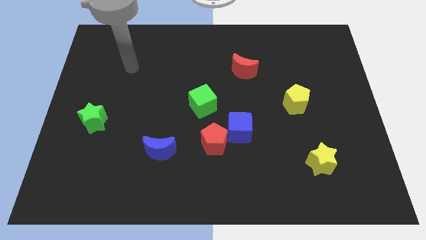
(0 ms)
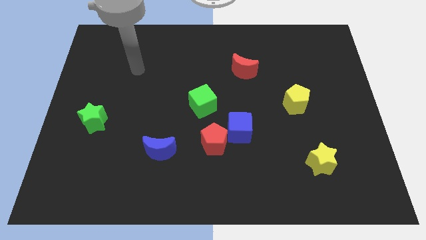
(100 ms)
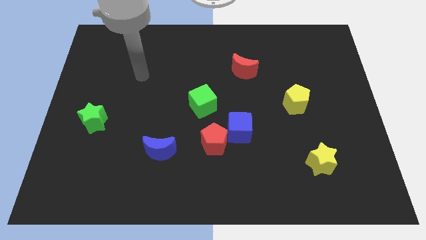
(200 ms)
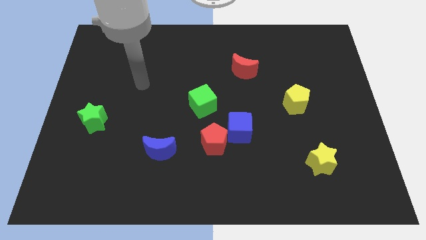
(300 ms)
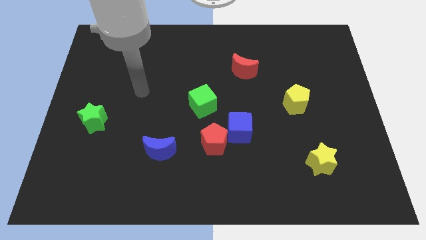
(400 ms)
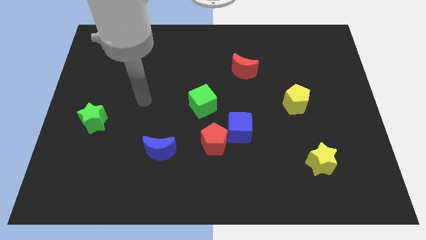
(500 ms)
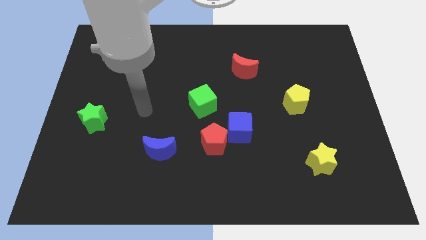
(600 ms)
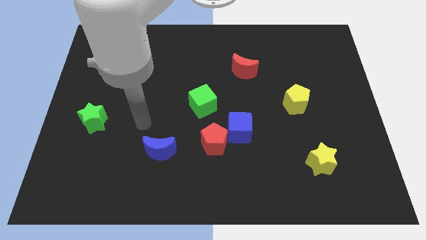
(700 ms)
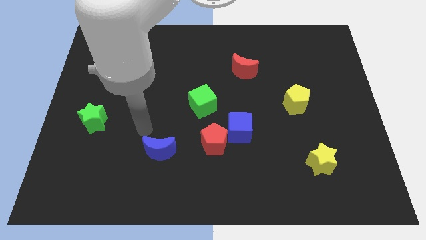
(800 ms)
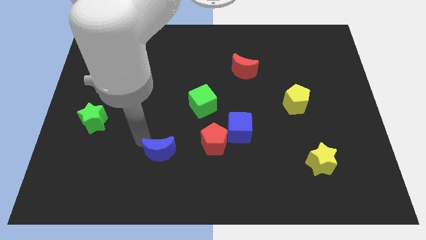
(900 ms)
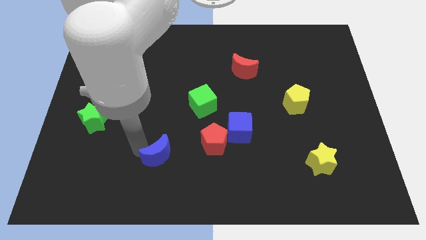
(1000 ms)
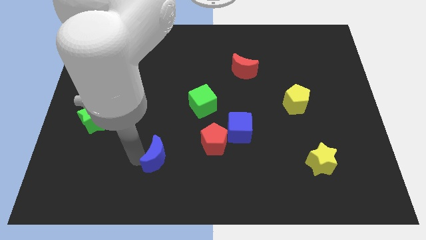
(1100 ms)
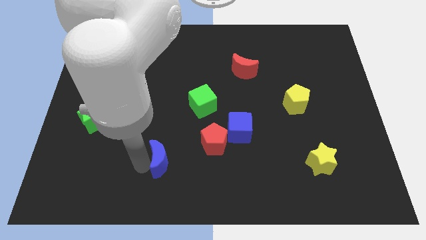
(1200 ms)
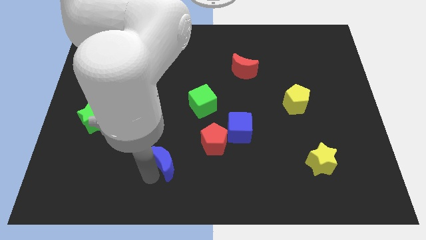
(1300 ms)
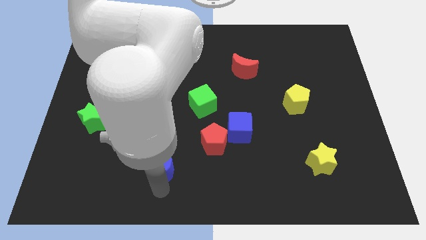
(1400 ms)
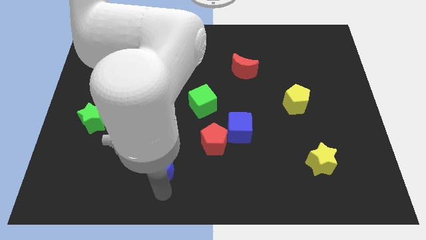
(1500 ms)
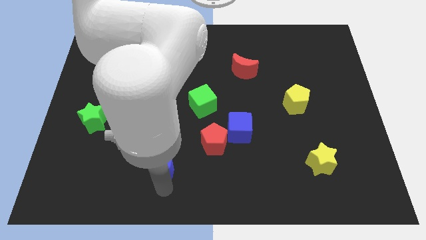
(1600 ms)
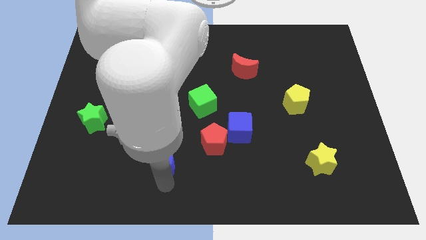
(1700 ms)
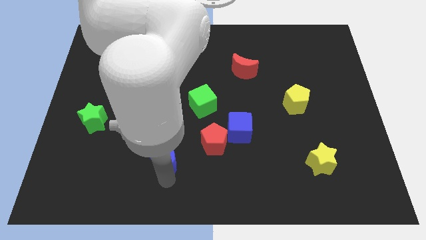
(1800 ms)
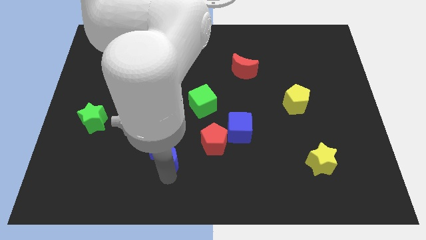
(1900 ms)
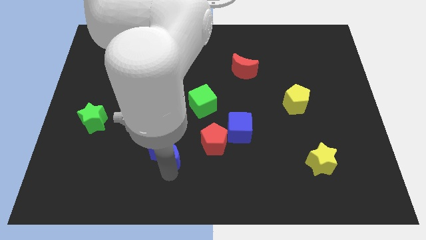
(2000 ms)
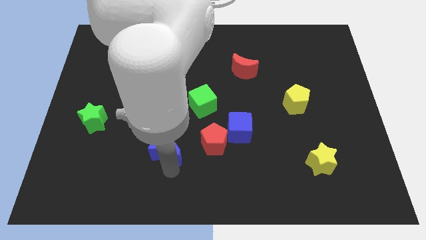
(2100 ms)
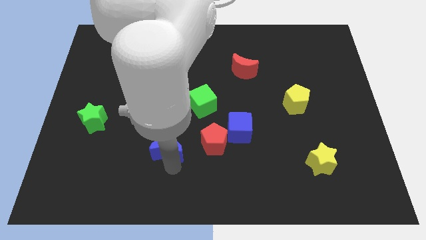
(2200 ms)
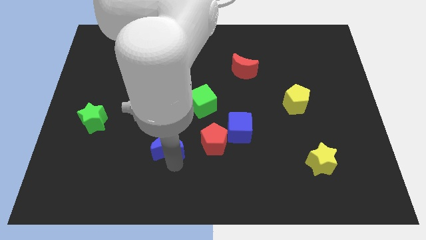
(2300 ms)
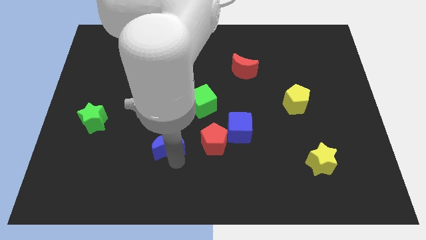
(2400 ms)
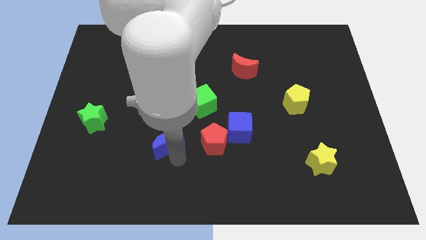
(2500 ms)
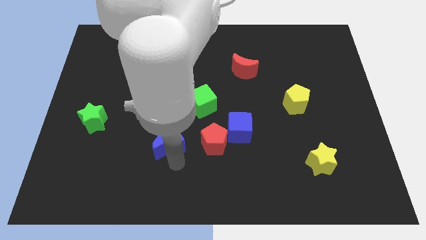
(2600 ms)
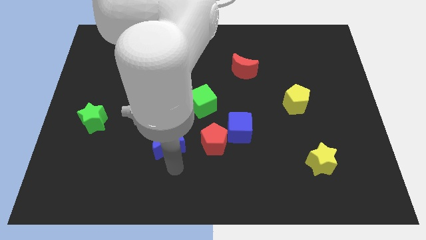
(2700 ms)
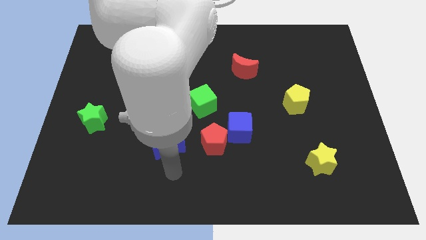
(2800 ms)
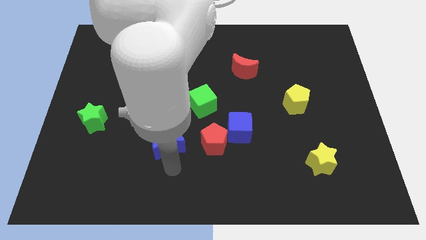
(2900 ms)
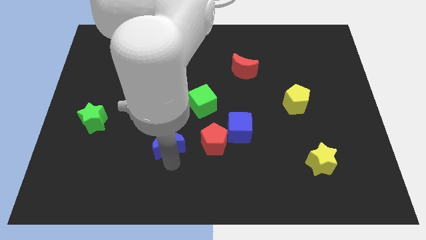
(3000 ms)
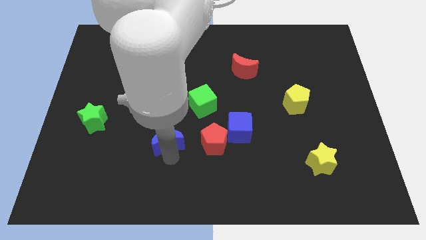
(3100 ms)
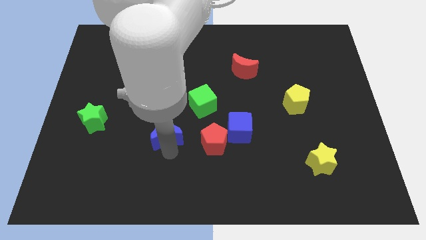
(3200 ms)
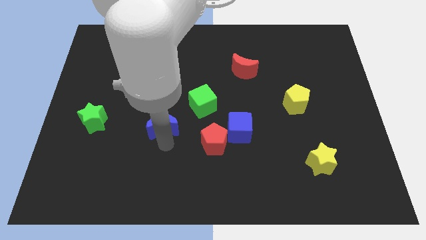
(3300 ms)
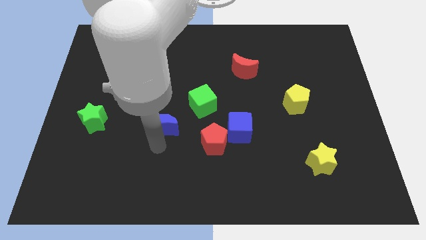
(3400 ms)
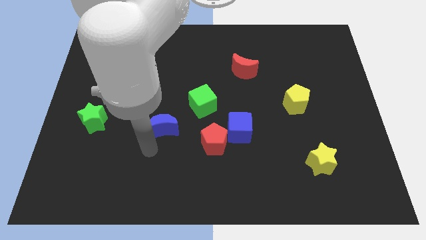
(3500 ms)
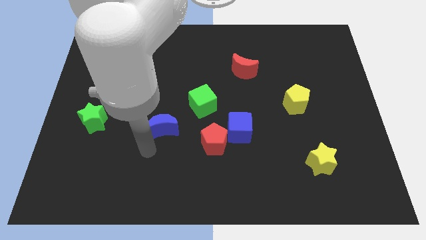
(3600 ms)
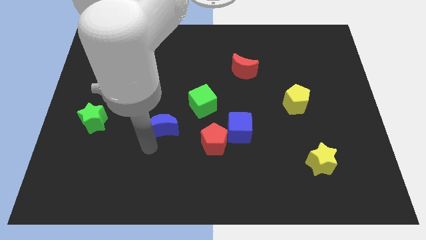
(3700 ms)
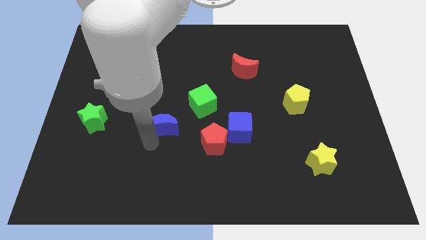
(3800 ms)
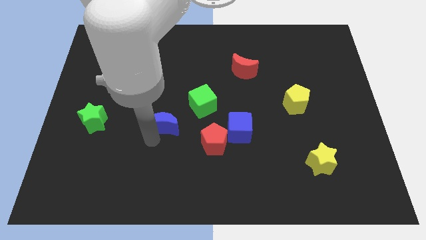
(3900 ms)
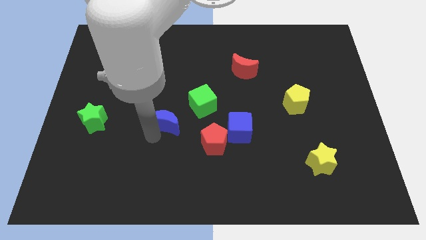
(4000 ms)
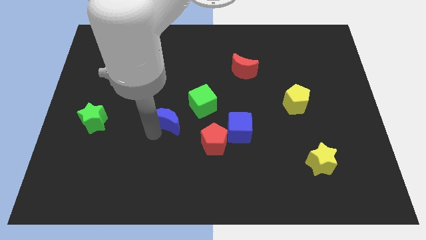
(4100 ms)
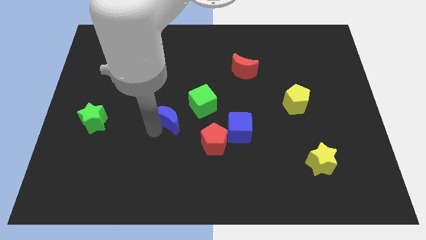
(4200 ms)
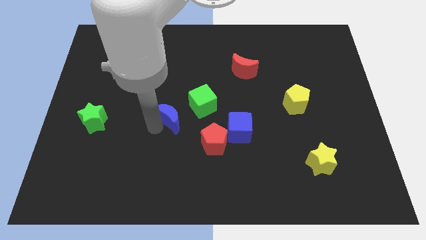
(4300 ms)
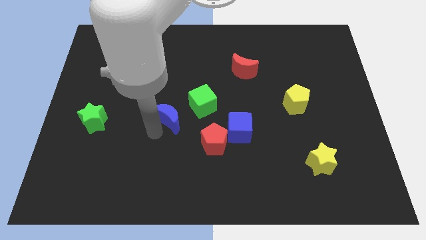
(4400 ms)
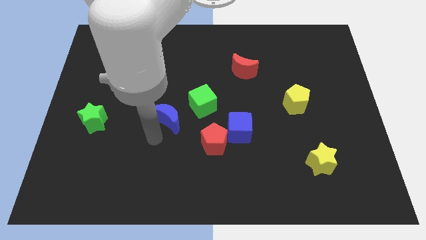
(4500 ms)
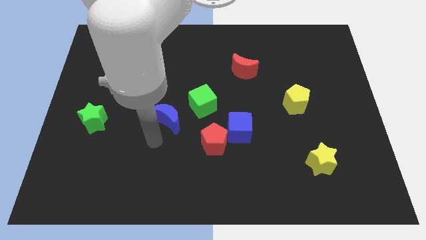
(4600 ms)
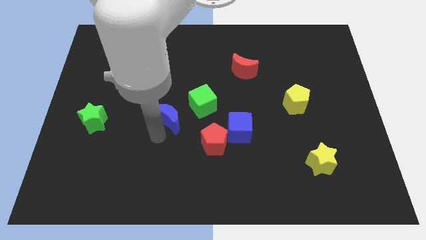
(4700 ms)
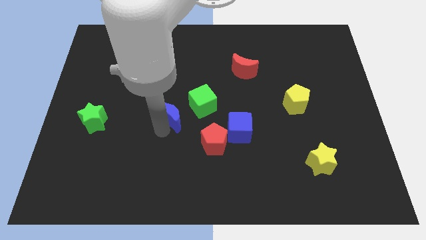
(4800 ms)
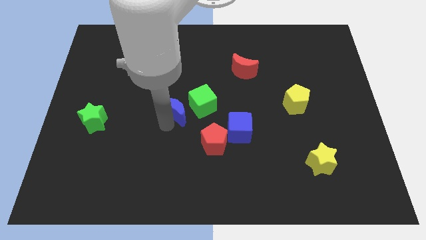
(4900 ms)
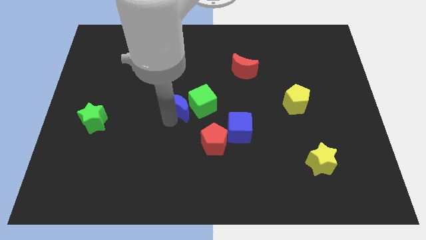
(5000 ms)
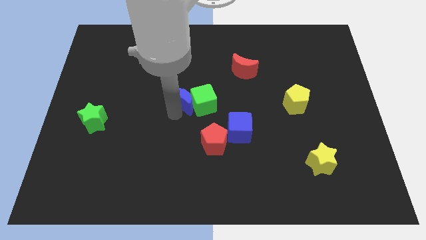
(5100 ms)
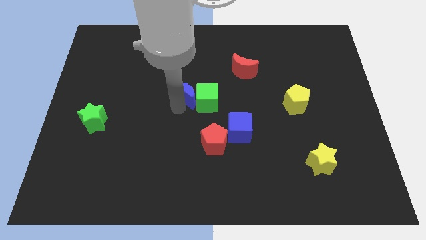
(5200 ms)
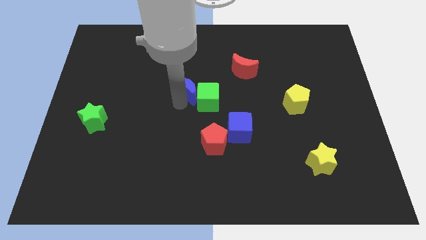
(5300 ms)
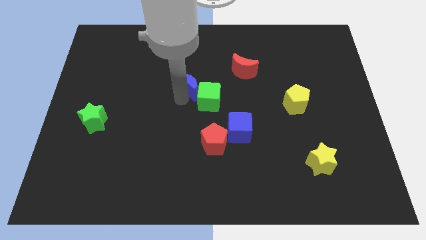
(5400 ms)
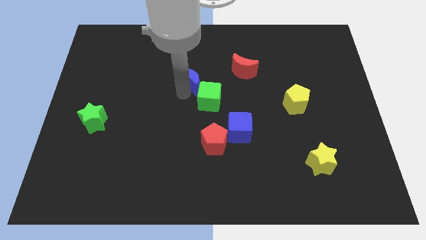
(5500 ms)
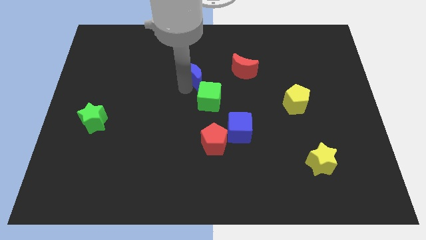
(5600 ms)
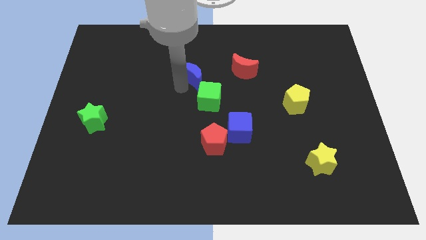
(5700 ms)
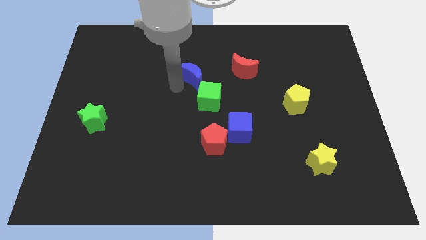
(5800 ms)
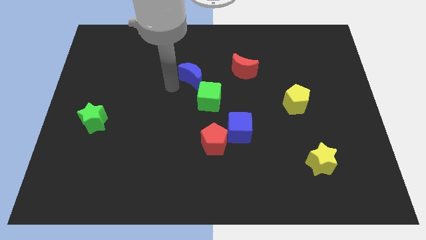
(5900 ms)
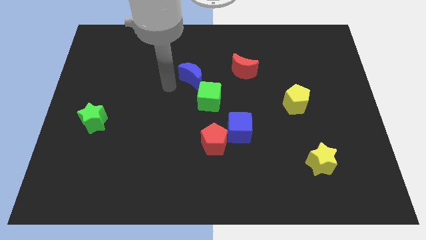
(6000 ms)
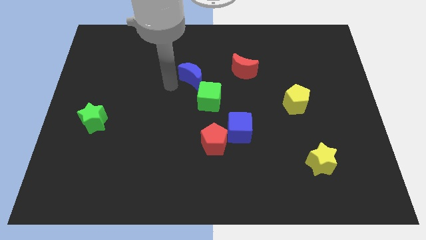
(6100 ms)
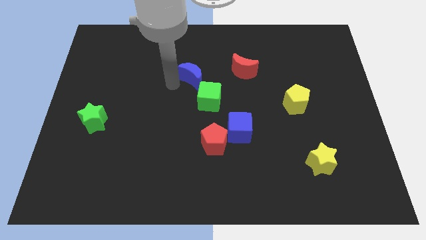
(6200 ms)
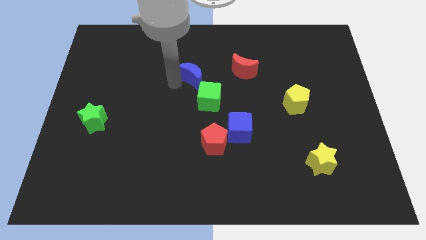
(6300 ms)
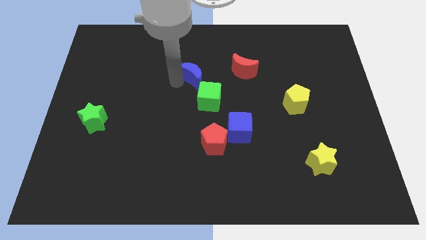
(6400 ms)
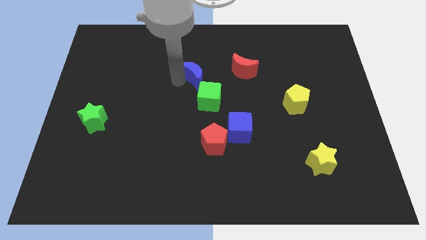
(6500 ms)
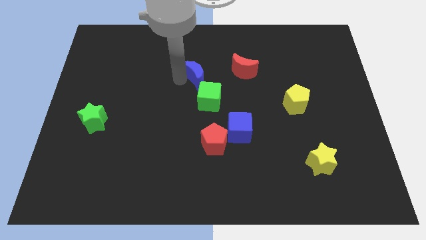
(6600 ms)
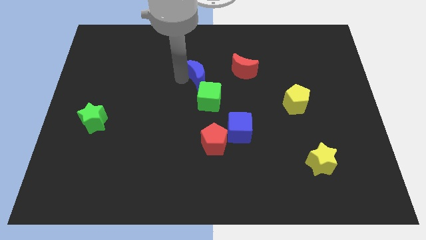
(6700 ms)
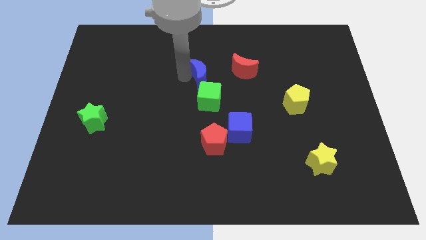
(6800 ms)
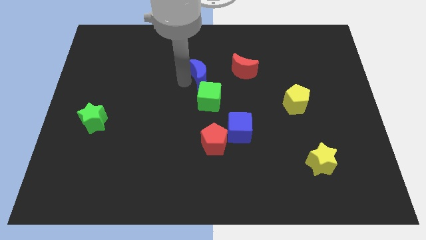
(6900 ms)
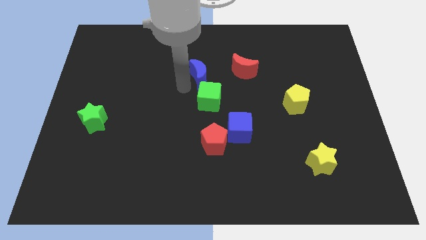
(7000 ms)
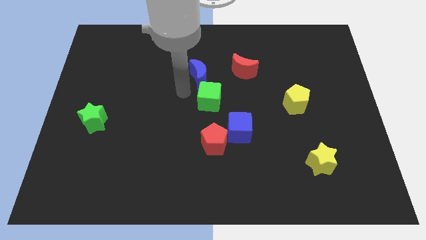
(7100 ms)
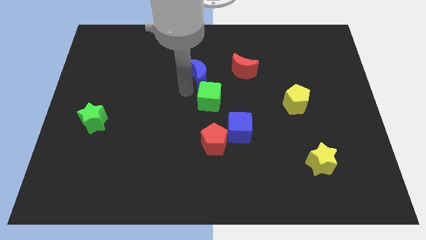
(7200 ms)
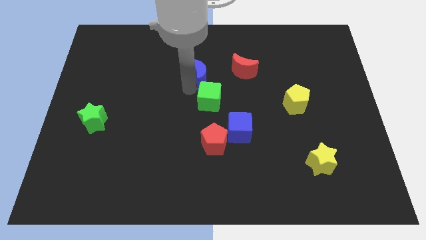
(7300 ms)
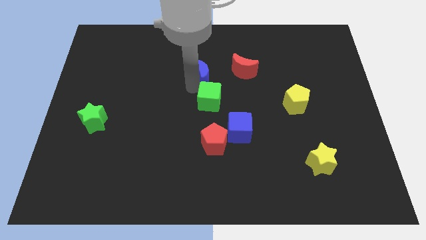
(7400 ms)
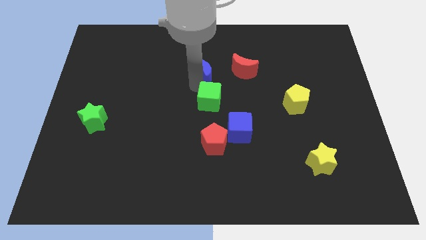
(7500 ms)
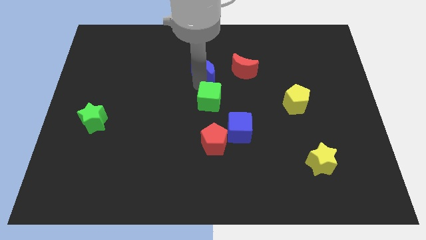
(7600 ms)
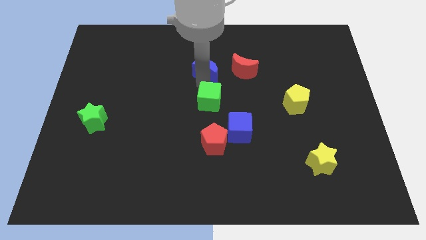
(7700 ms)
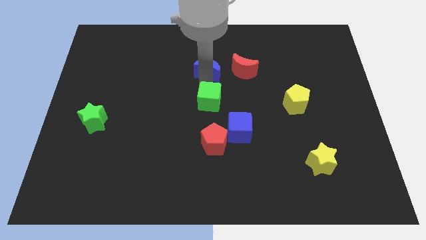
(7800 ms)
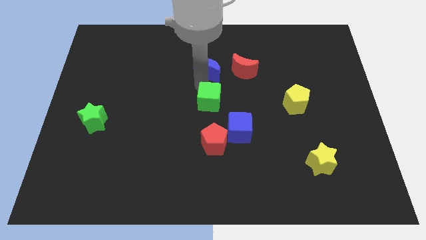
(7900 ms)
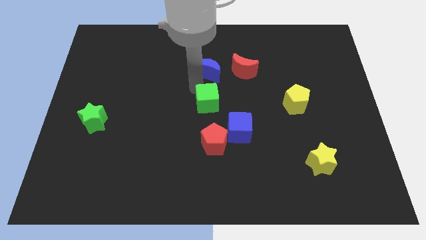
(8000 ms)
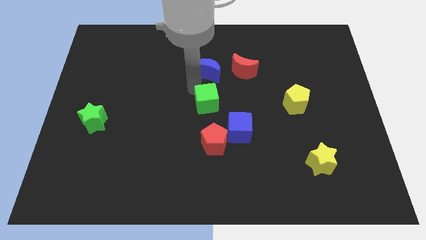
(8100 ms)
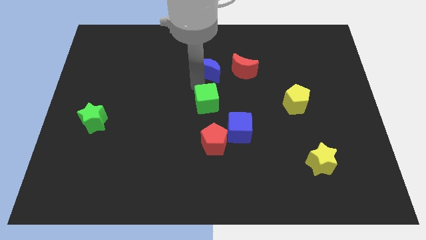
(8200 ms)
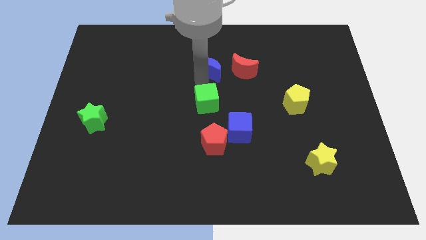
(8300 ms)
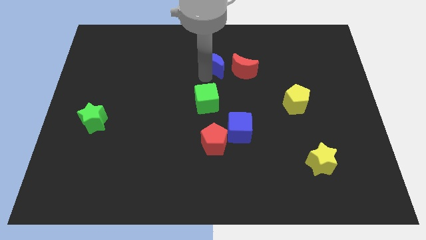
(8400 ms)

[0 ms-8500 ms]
put the blue moon to the top left of the red moon
